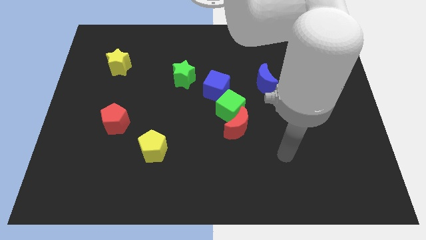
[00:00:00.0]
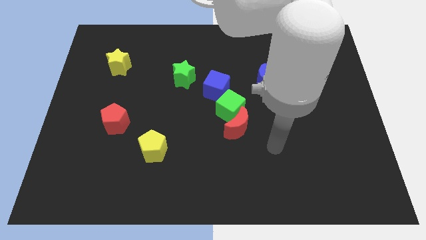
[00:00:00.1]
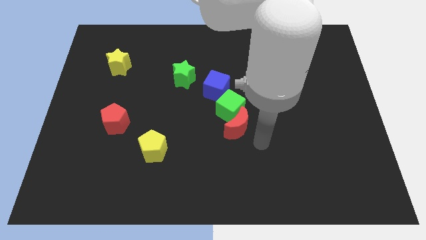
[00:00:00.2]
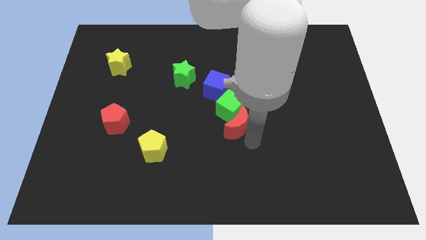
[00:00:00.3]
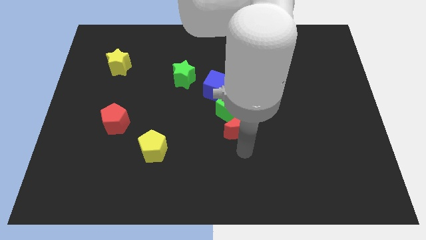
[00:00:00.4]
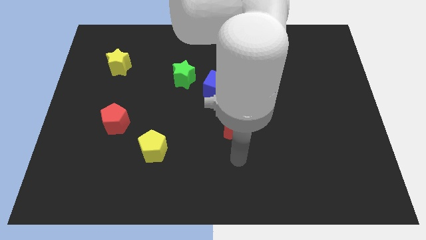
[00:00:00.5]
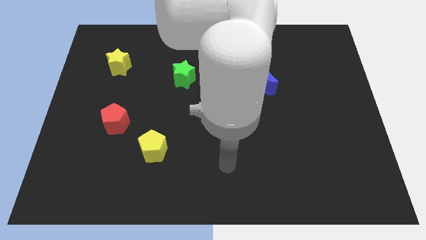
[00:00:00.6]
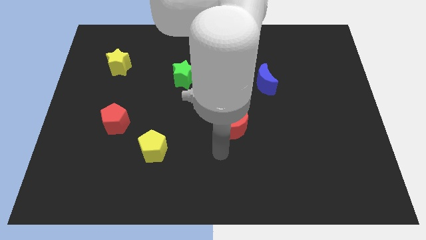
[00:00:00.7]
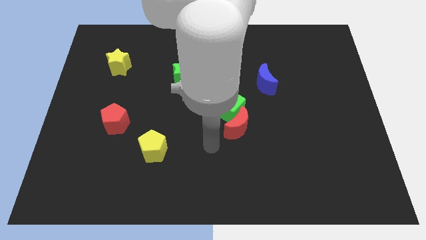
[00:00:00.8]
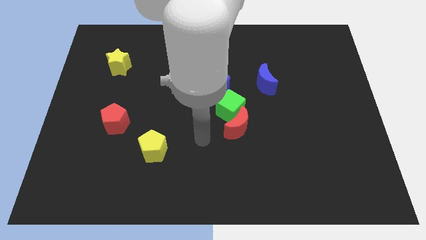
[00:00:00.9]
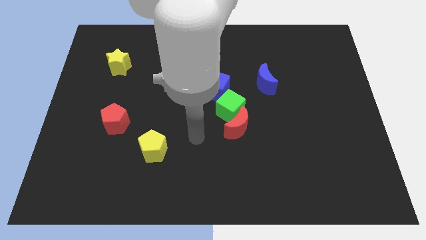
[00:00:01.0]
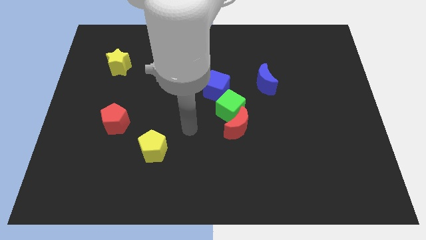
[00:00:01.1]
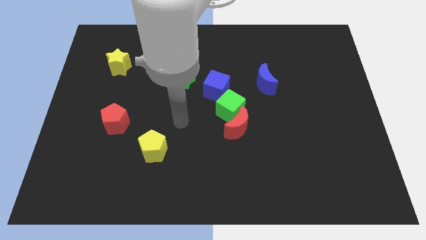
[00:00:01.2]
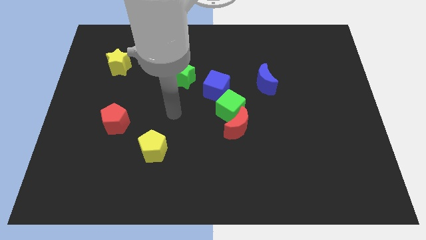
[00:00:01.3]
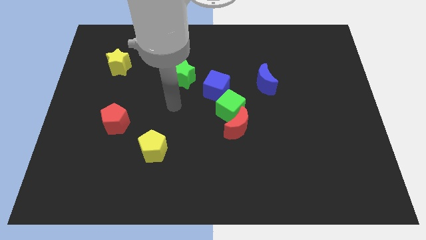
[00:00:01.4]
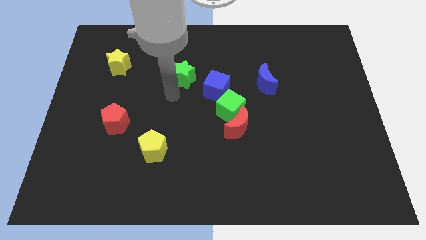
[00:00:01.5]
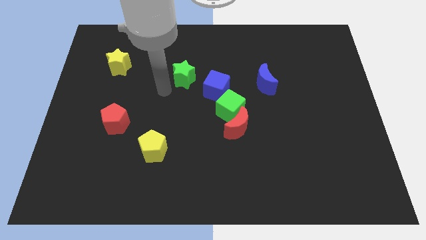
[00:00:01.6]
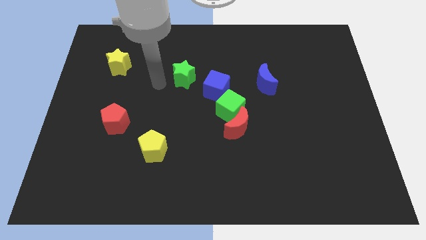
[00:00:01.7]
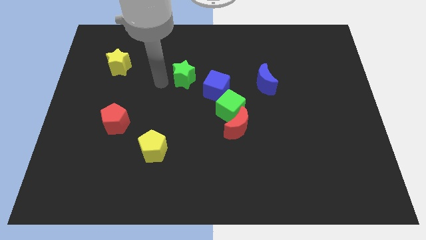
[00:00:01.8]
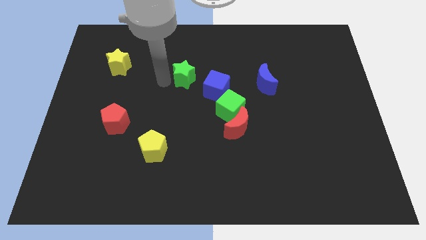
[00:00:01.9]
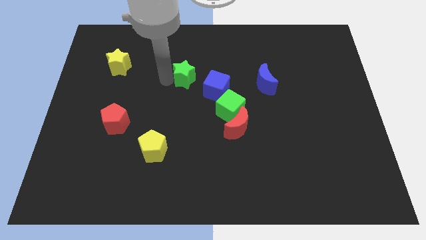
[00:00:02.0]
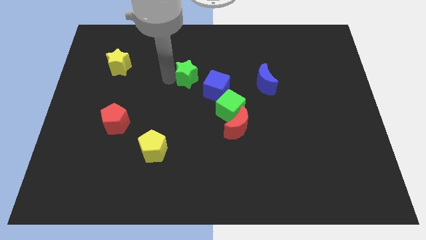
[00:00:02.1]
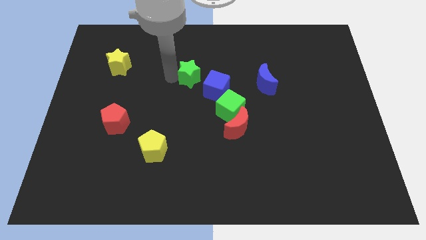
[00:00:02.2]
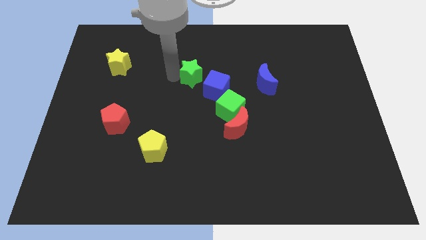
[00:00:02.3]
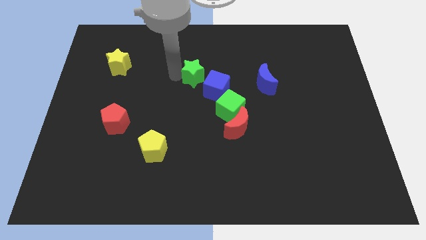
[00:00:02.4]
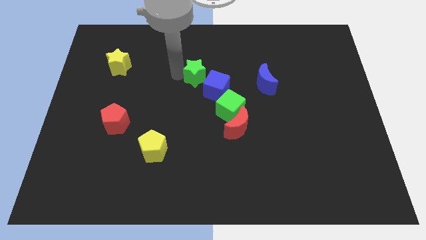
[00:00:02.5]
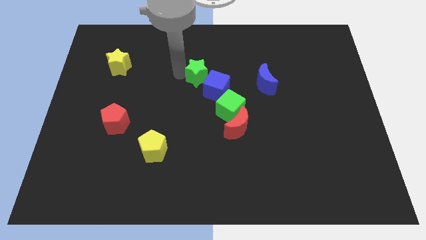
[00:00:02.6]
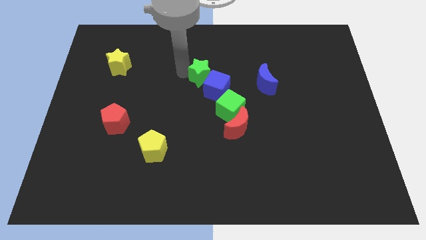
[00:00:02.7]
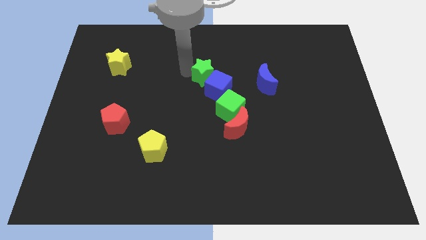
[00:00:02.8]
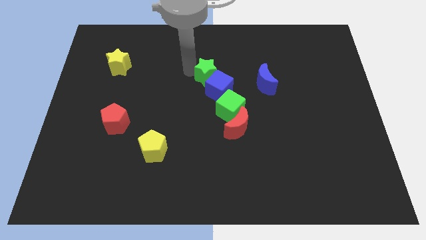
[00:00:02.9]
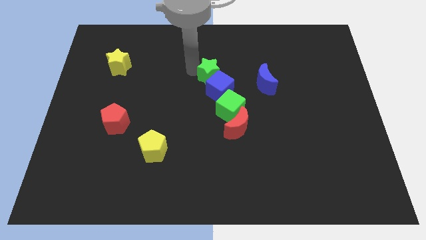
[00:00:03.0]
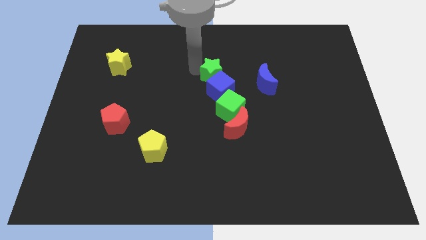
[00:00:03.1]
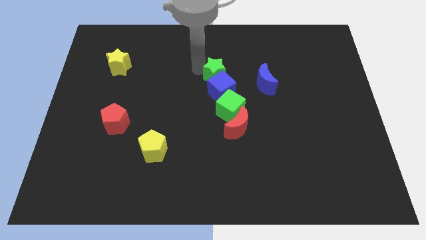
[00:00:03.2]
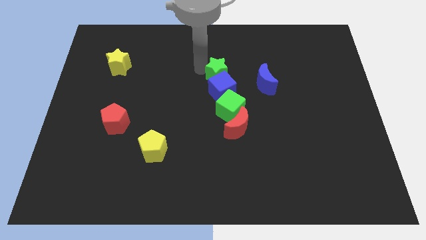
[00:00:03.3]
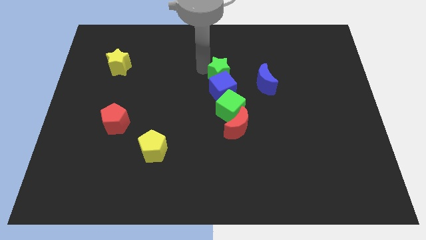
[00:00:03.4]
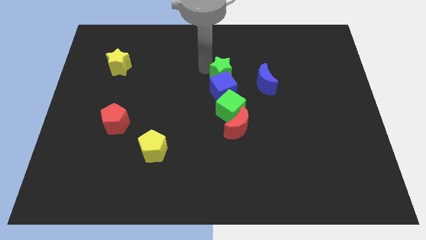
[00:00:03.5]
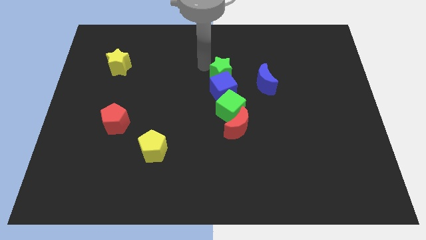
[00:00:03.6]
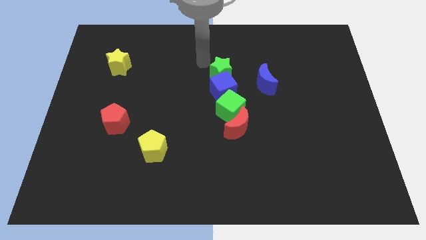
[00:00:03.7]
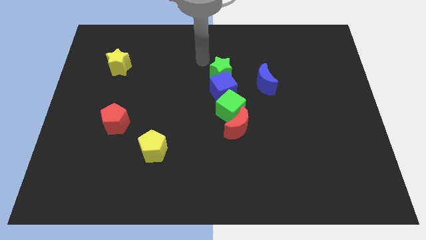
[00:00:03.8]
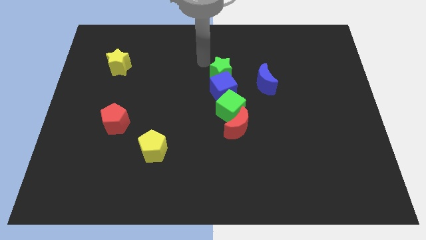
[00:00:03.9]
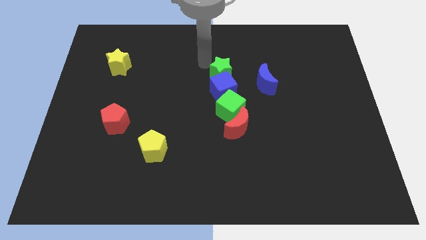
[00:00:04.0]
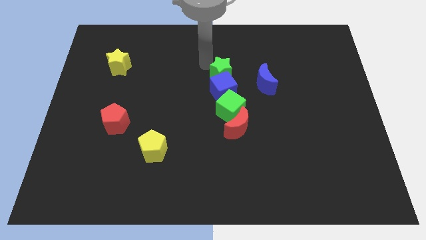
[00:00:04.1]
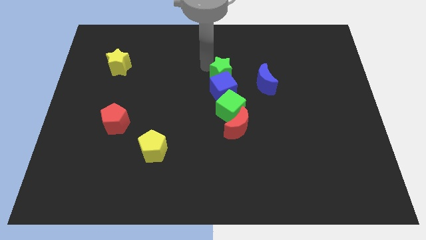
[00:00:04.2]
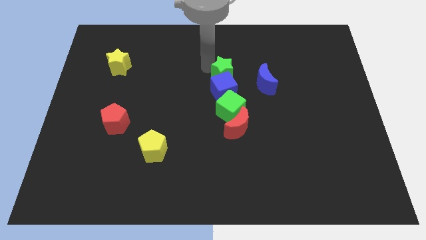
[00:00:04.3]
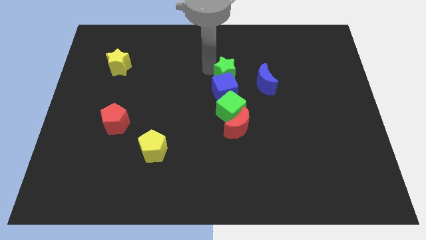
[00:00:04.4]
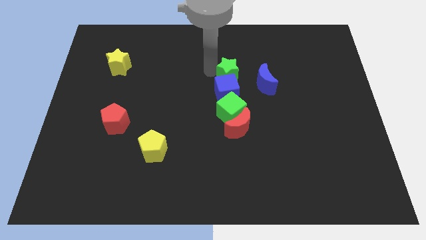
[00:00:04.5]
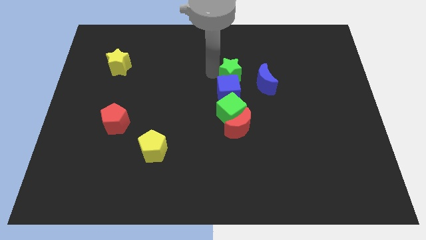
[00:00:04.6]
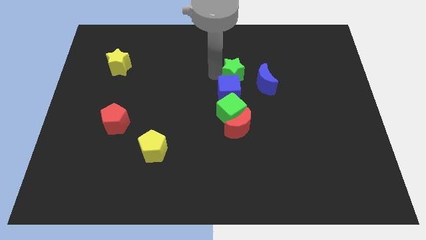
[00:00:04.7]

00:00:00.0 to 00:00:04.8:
put the green star to the top side of the red moon

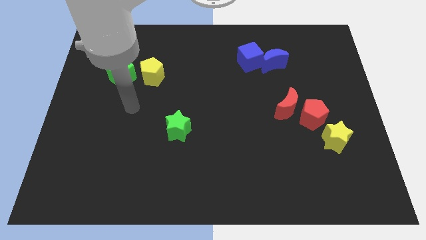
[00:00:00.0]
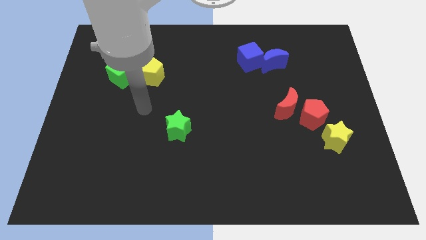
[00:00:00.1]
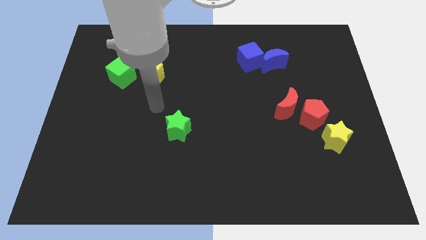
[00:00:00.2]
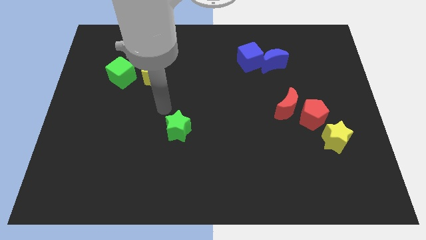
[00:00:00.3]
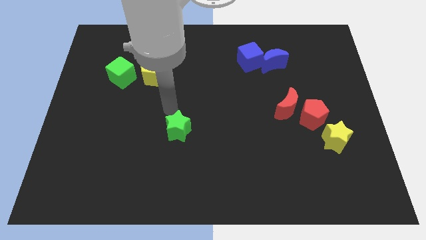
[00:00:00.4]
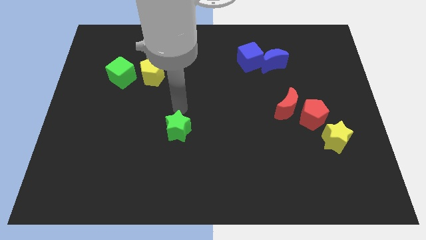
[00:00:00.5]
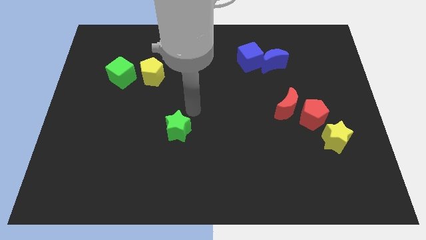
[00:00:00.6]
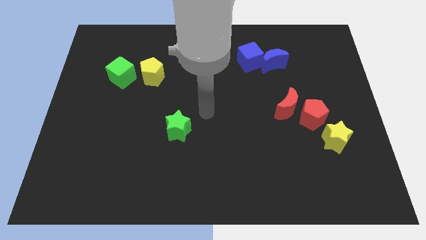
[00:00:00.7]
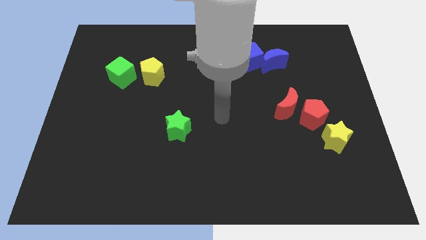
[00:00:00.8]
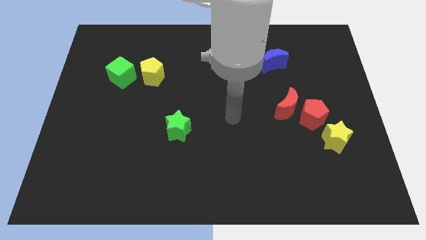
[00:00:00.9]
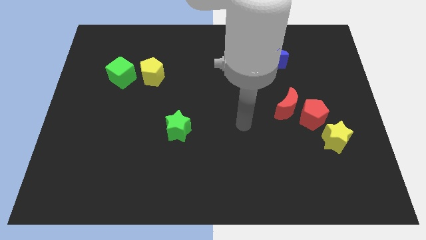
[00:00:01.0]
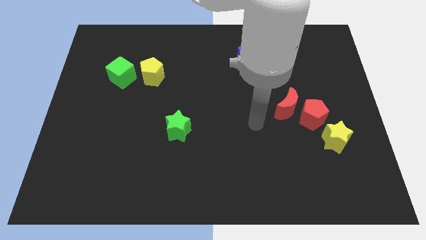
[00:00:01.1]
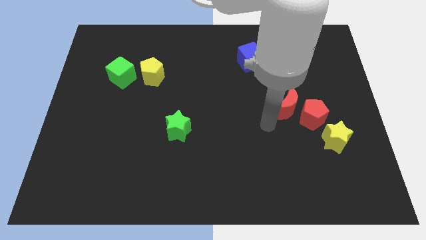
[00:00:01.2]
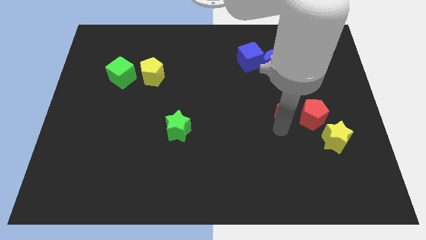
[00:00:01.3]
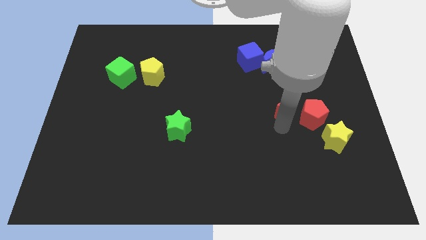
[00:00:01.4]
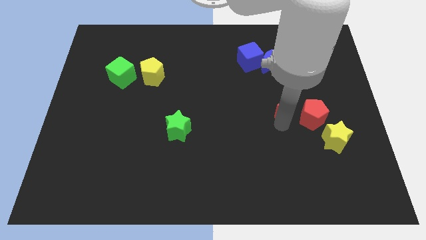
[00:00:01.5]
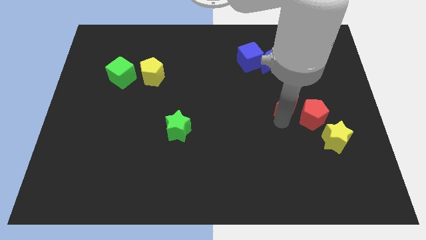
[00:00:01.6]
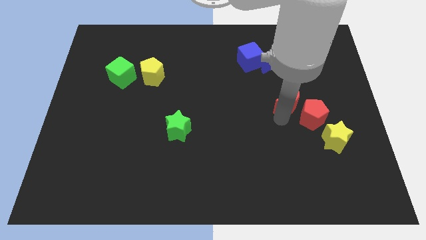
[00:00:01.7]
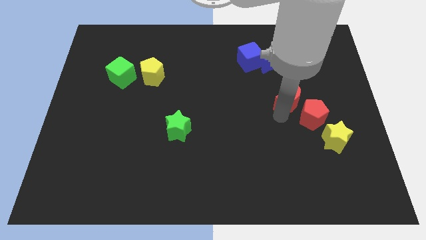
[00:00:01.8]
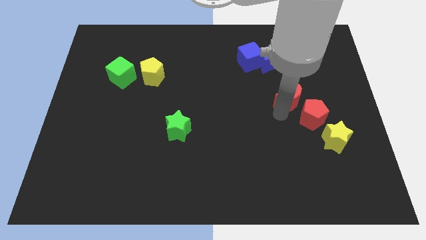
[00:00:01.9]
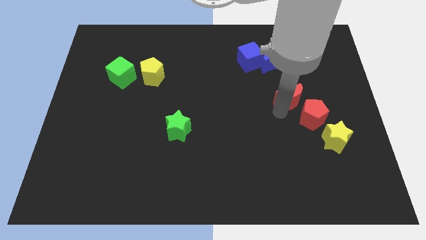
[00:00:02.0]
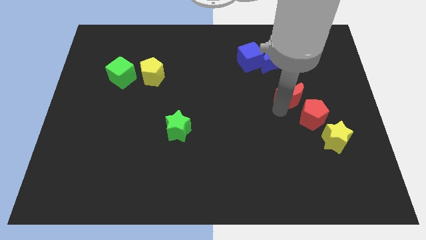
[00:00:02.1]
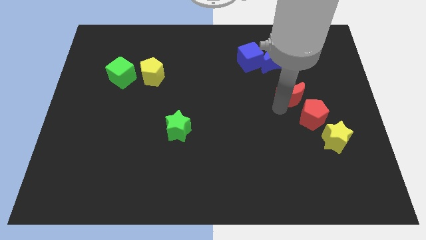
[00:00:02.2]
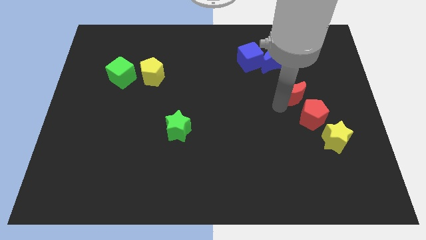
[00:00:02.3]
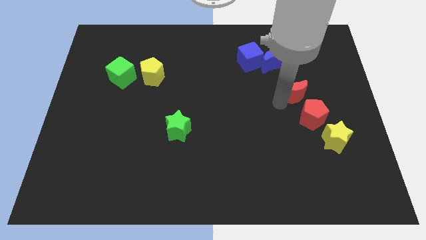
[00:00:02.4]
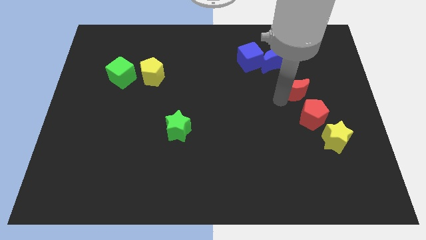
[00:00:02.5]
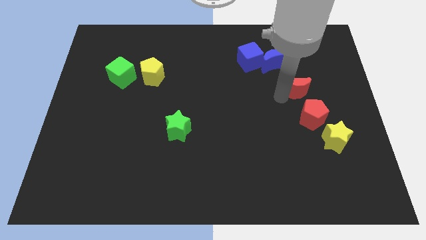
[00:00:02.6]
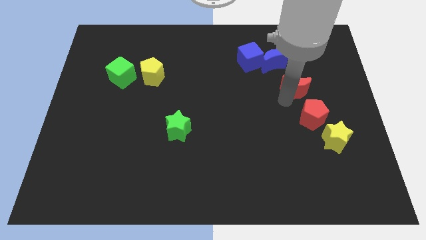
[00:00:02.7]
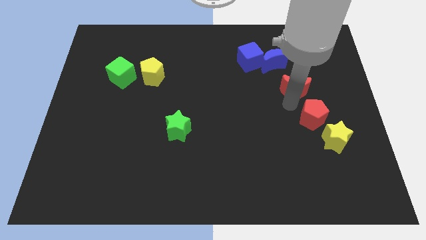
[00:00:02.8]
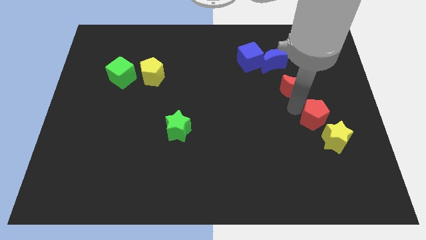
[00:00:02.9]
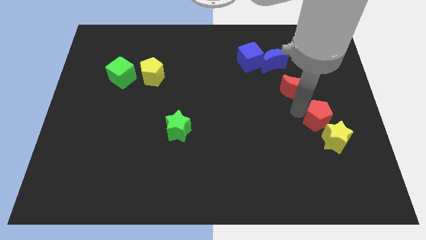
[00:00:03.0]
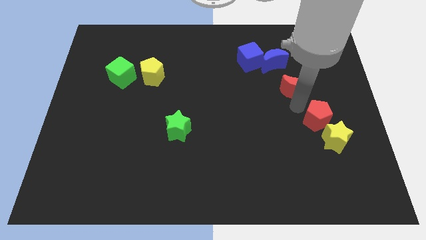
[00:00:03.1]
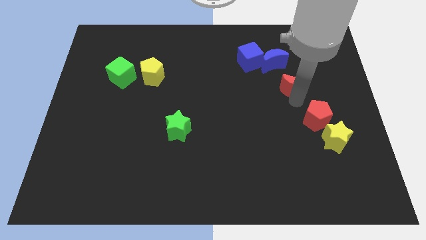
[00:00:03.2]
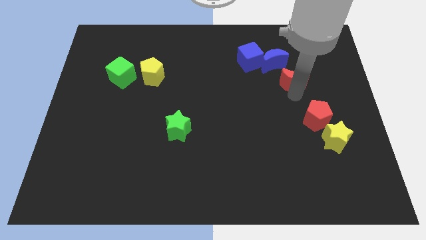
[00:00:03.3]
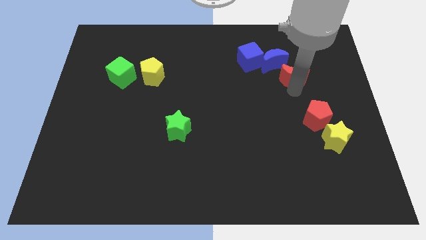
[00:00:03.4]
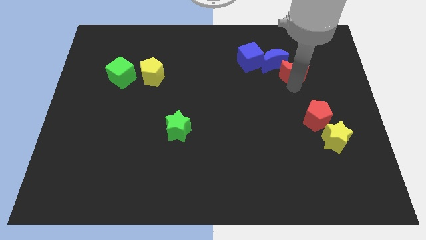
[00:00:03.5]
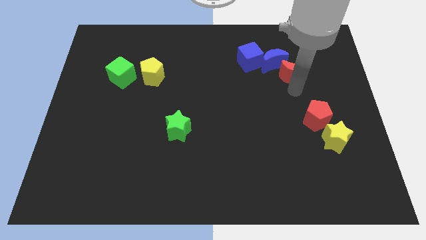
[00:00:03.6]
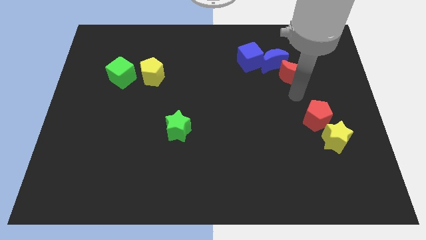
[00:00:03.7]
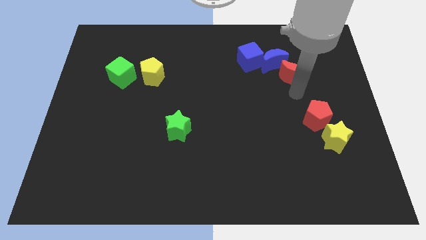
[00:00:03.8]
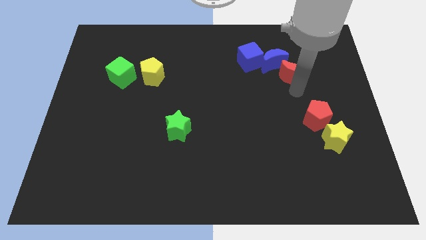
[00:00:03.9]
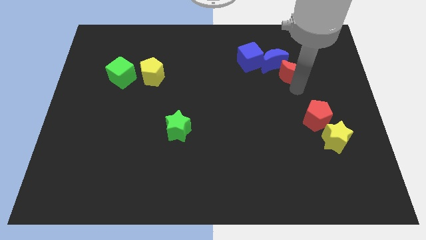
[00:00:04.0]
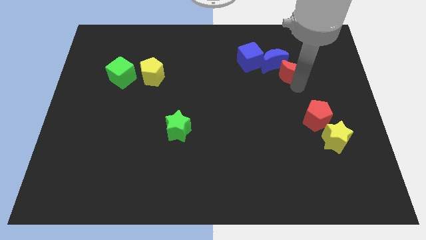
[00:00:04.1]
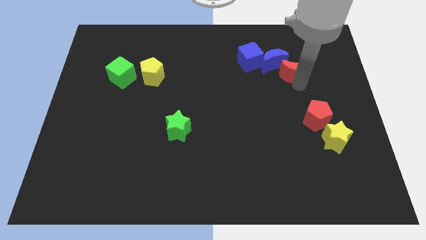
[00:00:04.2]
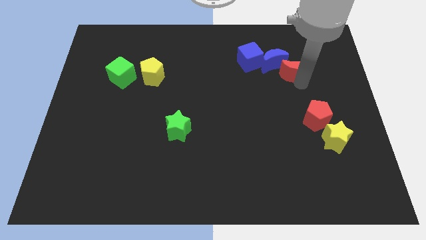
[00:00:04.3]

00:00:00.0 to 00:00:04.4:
push the red moon to the right of the blue cube
